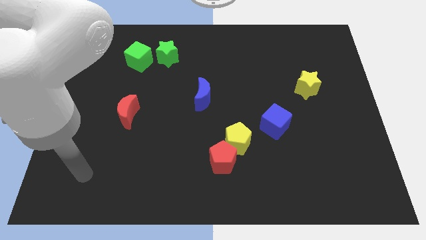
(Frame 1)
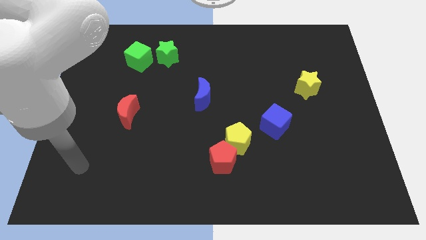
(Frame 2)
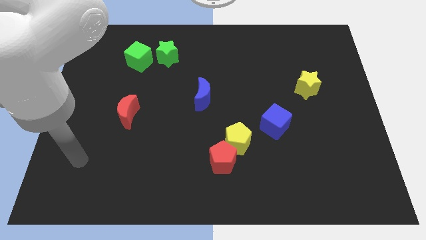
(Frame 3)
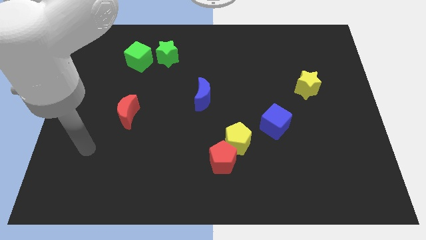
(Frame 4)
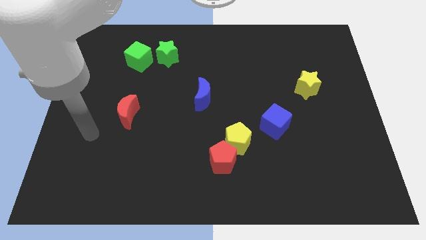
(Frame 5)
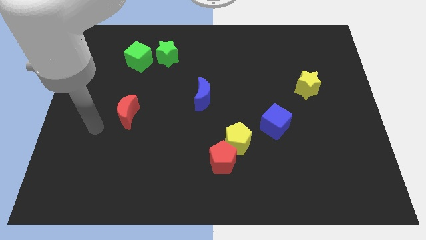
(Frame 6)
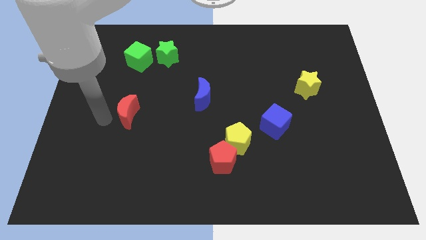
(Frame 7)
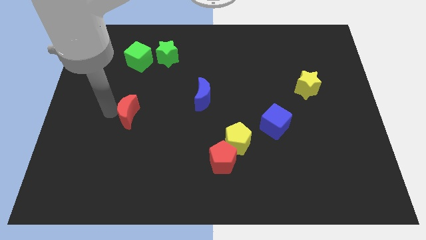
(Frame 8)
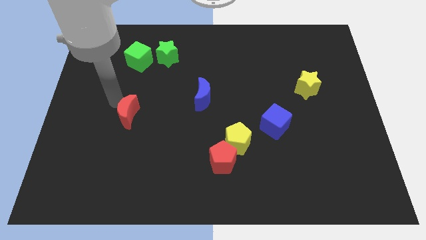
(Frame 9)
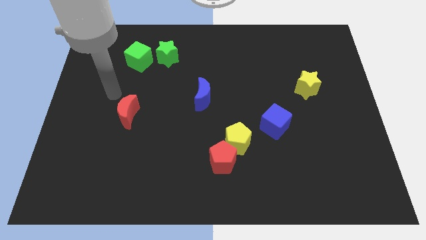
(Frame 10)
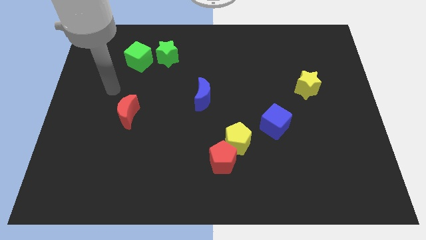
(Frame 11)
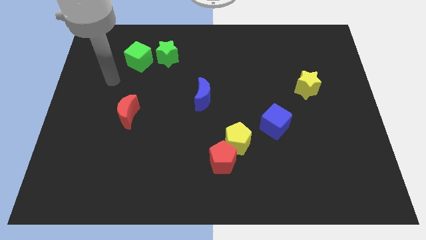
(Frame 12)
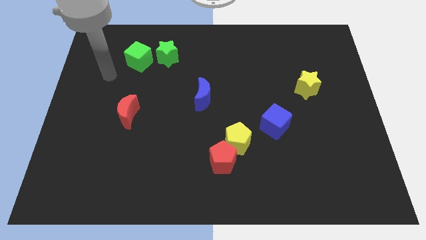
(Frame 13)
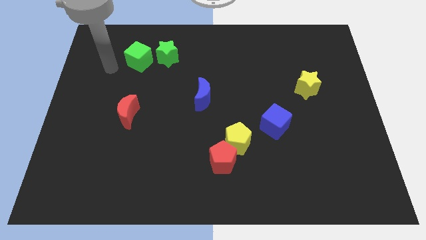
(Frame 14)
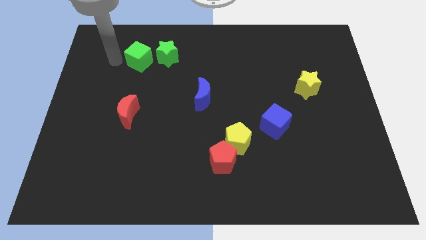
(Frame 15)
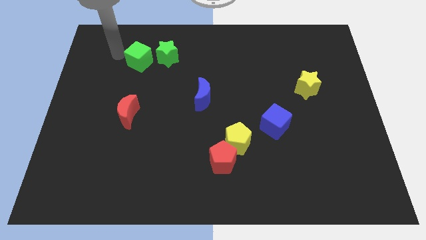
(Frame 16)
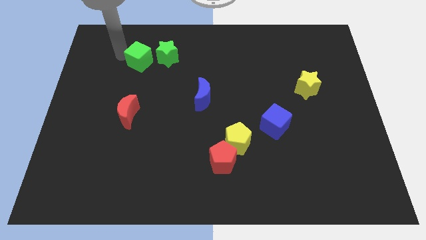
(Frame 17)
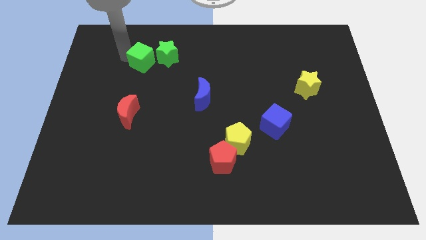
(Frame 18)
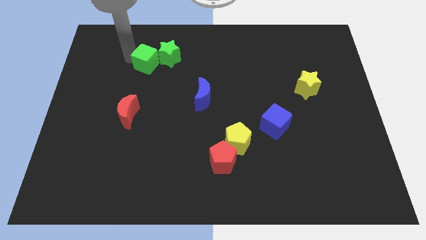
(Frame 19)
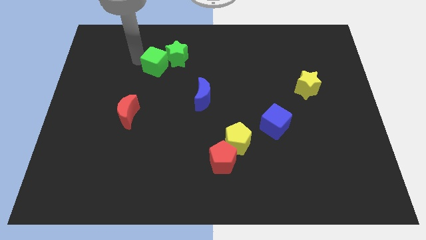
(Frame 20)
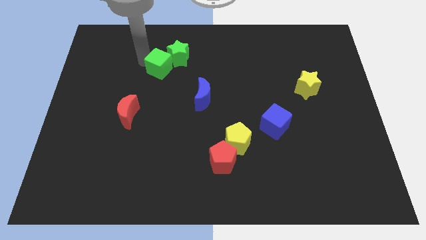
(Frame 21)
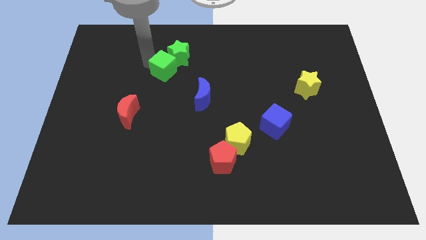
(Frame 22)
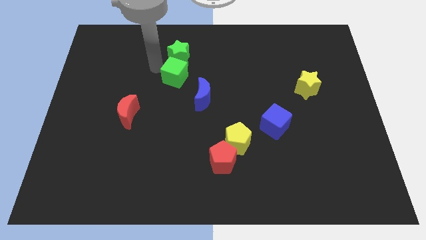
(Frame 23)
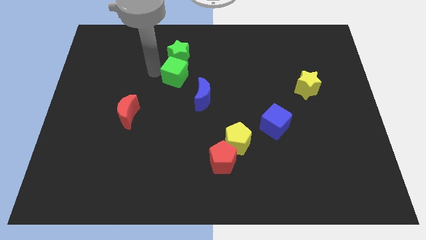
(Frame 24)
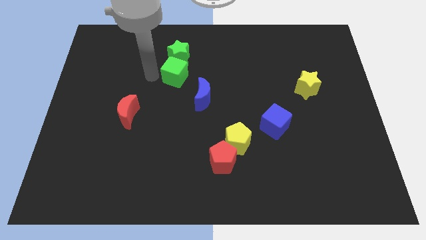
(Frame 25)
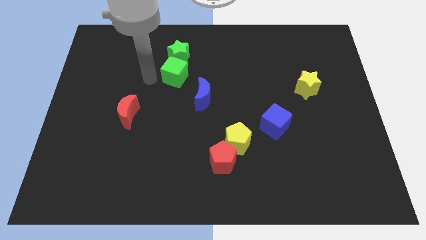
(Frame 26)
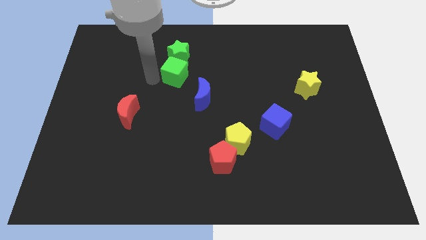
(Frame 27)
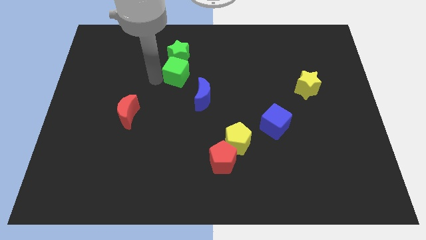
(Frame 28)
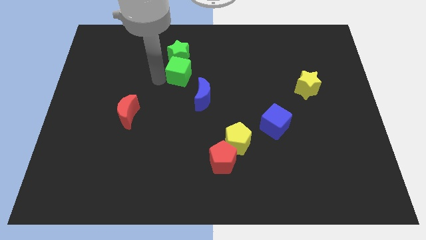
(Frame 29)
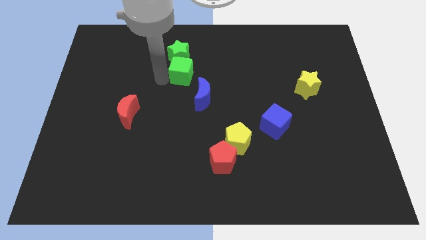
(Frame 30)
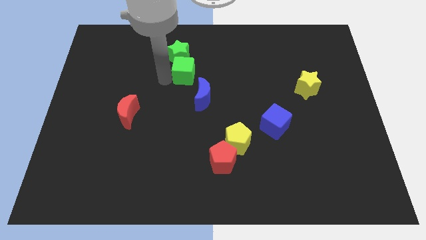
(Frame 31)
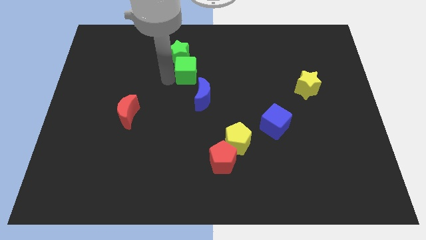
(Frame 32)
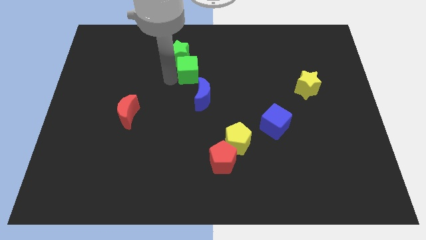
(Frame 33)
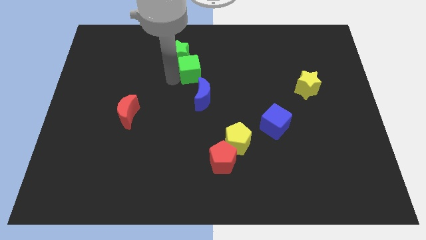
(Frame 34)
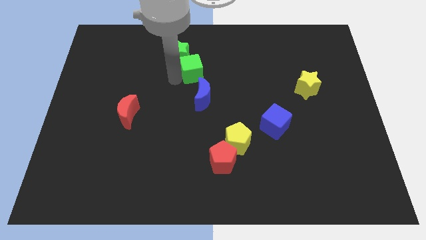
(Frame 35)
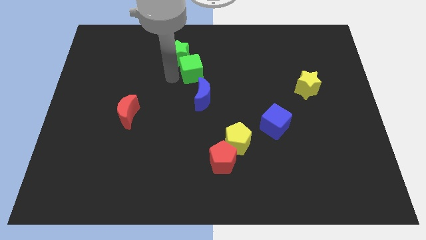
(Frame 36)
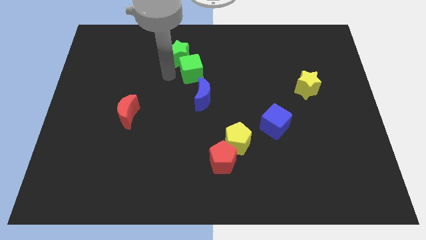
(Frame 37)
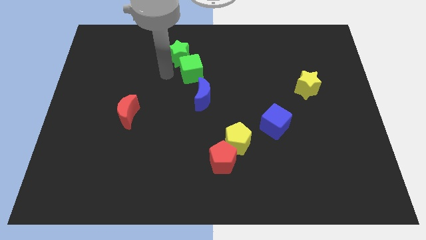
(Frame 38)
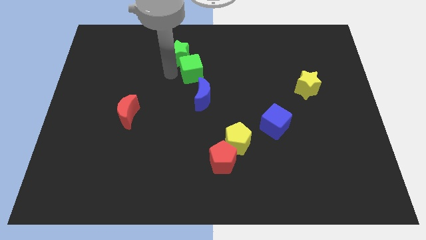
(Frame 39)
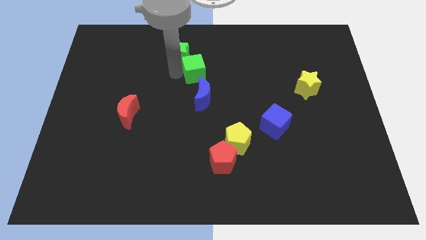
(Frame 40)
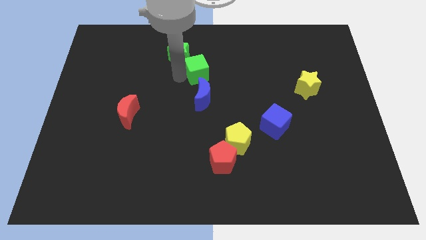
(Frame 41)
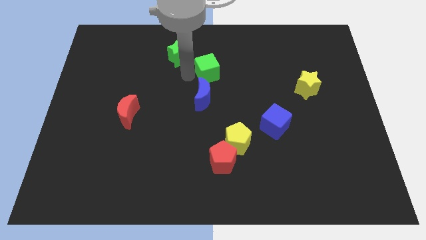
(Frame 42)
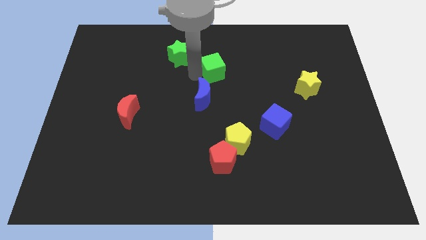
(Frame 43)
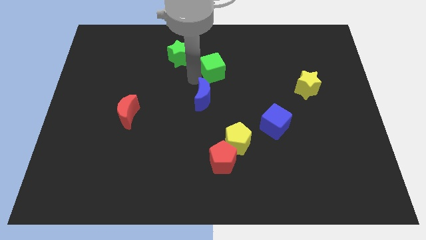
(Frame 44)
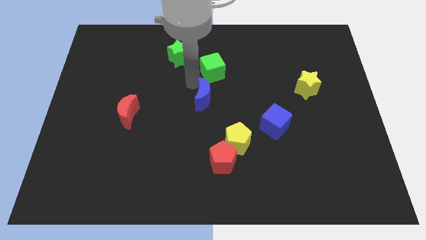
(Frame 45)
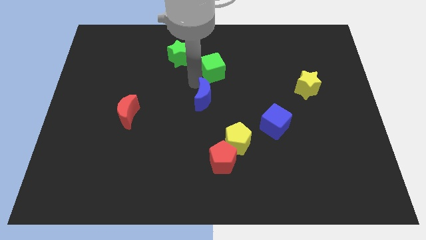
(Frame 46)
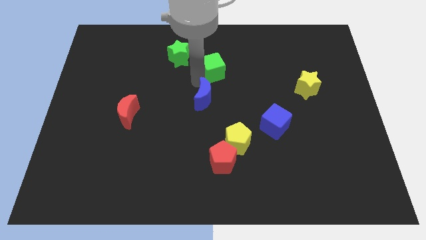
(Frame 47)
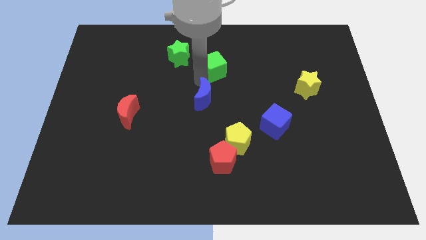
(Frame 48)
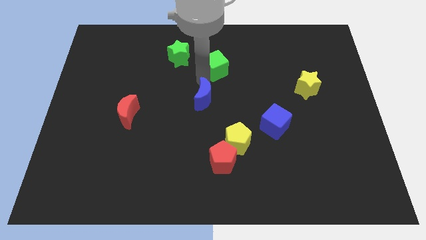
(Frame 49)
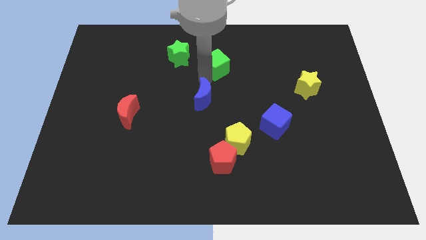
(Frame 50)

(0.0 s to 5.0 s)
move the green cube right

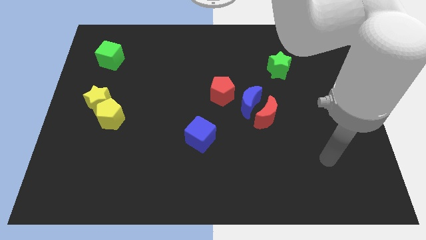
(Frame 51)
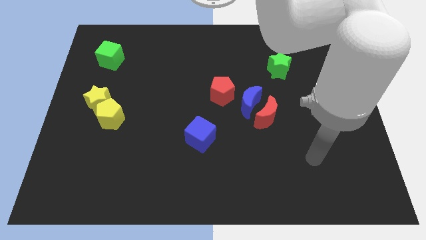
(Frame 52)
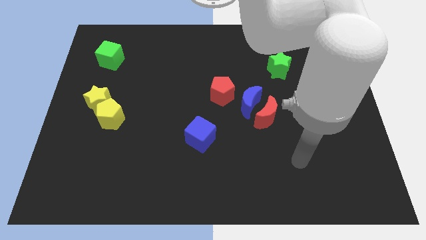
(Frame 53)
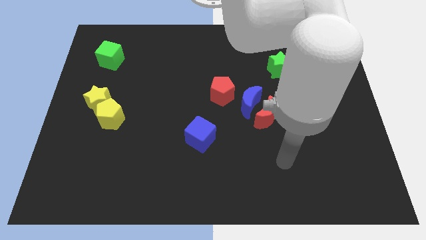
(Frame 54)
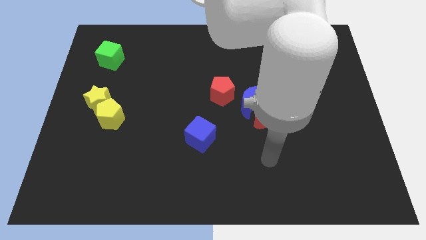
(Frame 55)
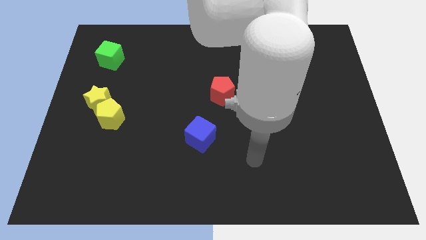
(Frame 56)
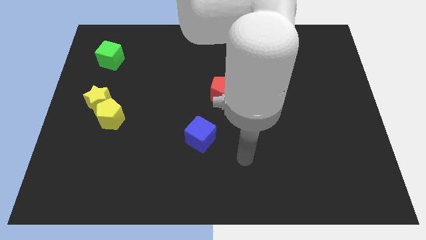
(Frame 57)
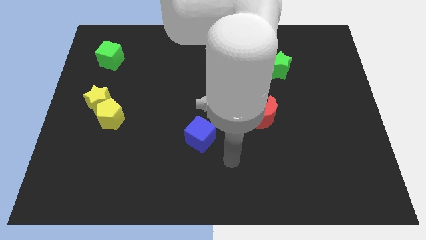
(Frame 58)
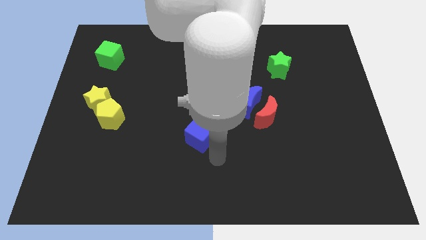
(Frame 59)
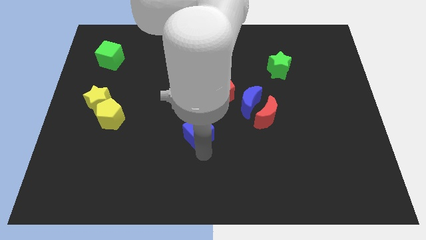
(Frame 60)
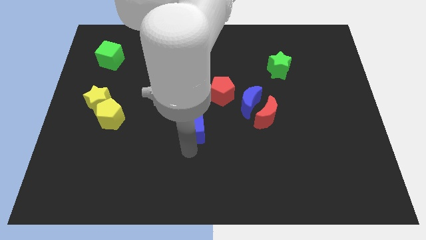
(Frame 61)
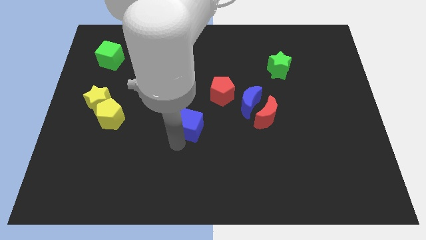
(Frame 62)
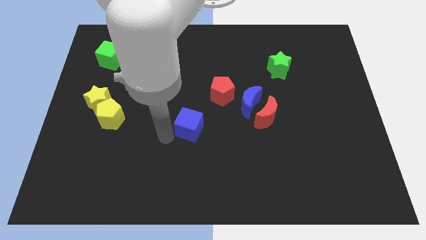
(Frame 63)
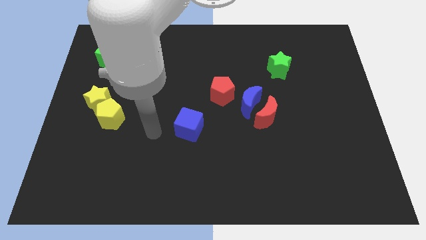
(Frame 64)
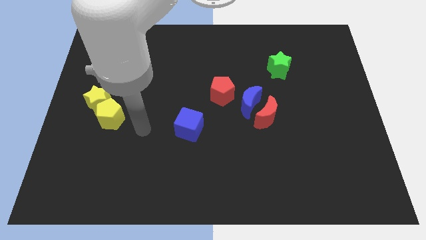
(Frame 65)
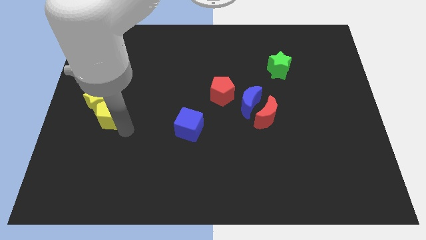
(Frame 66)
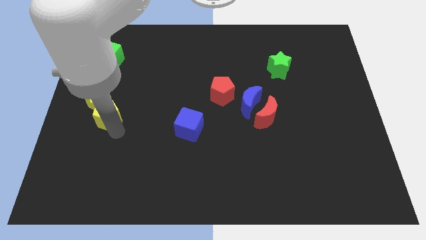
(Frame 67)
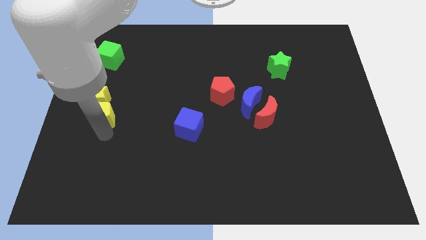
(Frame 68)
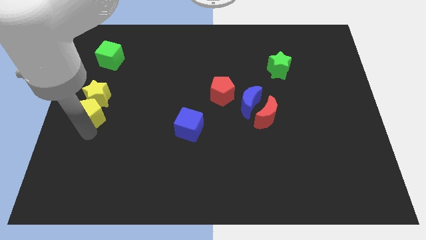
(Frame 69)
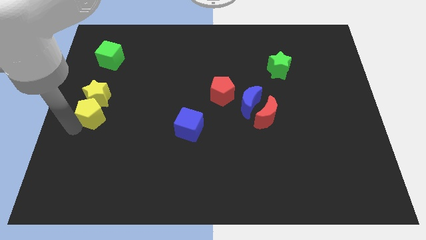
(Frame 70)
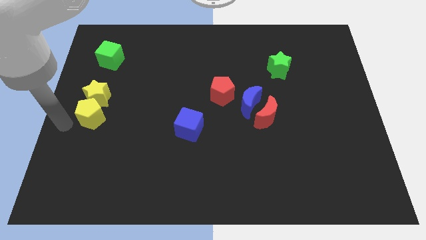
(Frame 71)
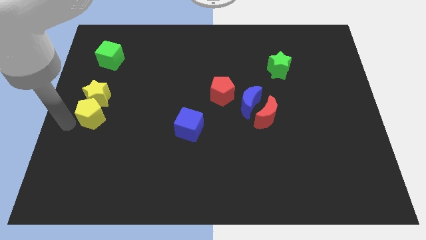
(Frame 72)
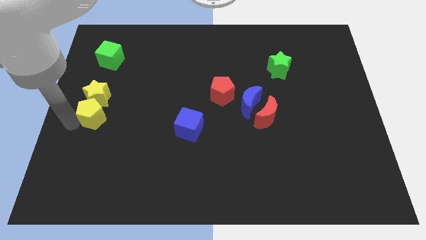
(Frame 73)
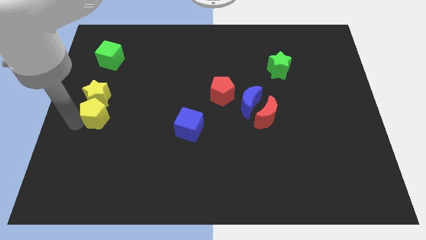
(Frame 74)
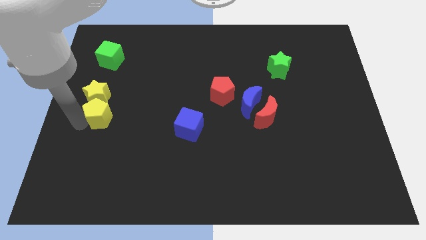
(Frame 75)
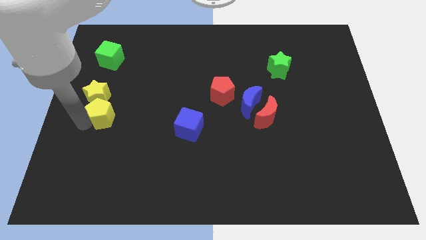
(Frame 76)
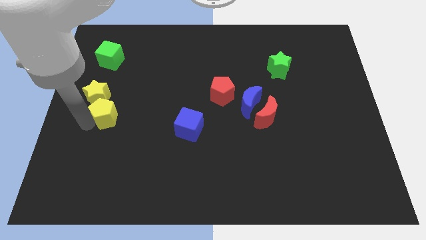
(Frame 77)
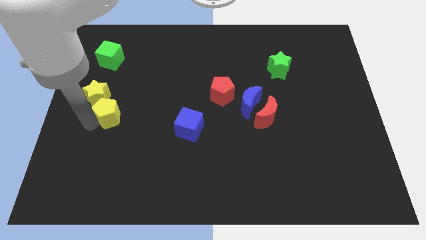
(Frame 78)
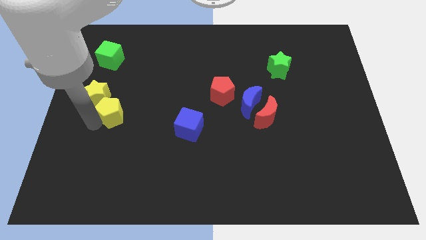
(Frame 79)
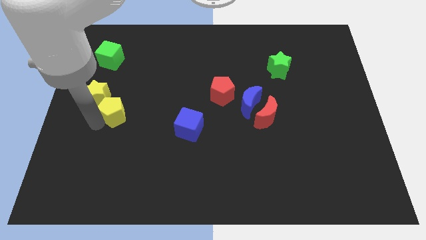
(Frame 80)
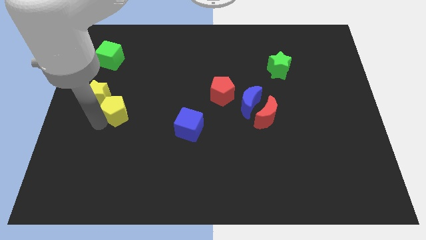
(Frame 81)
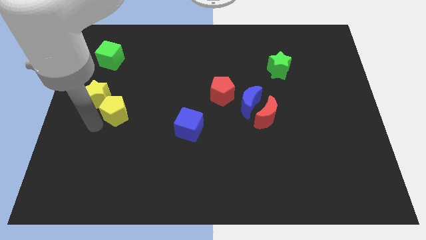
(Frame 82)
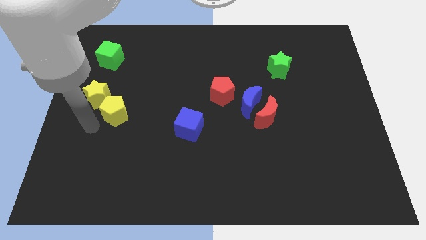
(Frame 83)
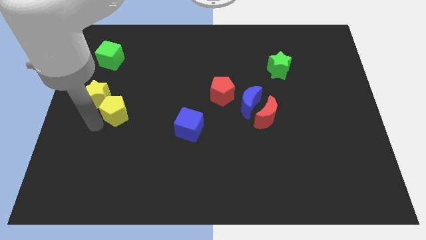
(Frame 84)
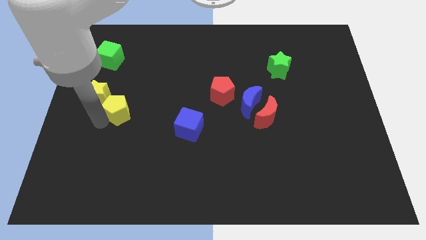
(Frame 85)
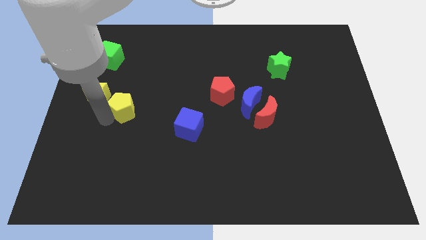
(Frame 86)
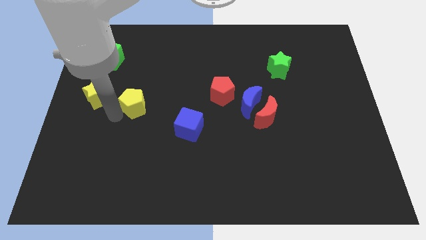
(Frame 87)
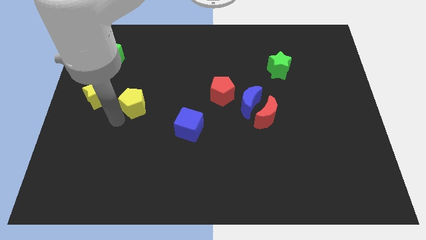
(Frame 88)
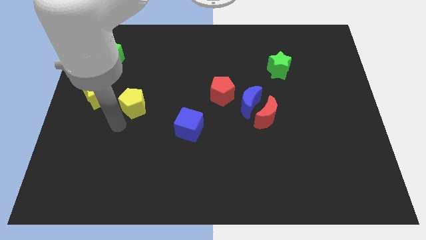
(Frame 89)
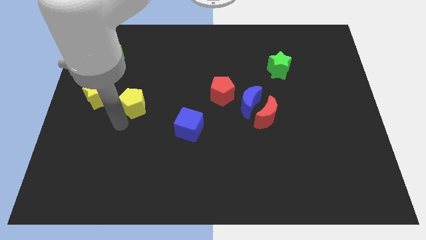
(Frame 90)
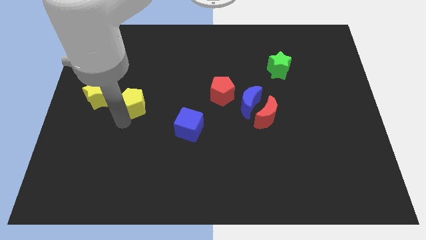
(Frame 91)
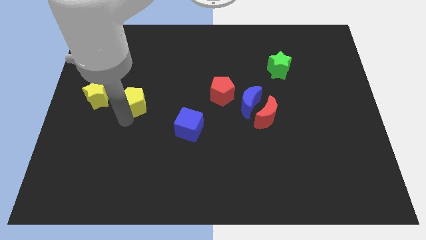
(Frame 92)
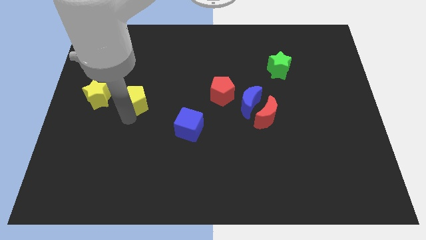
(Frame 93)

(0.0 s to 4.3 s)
slightly push the yellow pentagon diagonally up and right
